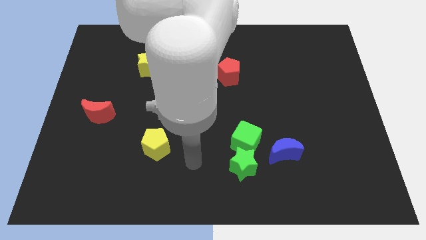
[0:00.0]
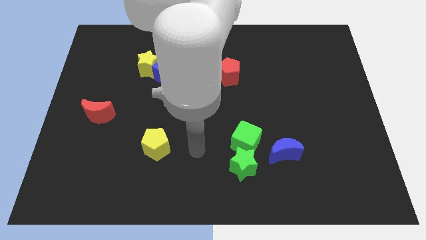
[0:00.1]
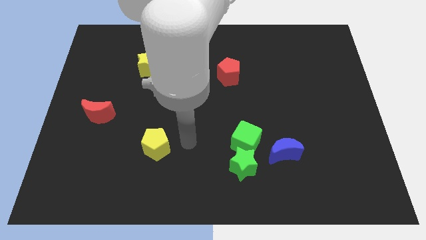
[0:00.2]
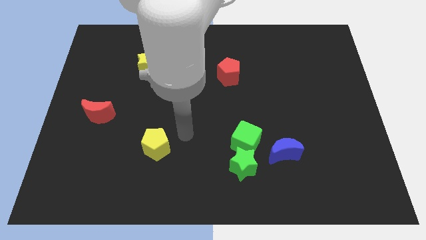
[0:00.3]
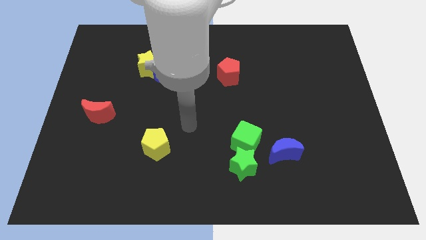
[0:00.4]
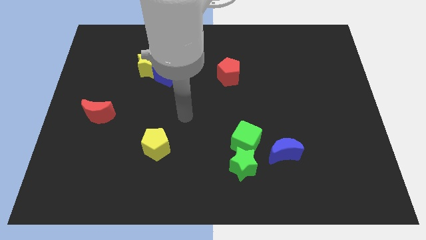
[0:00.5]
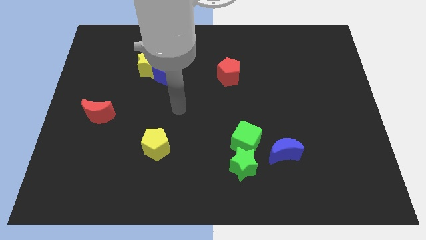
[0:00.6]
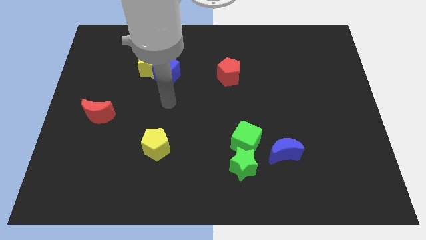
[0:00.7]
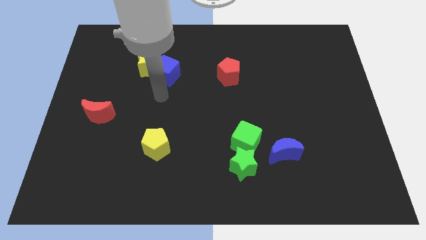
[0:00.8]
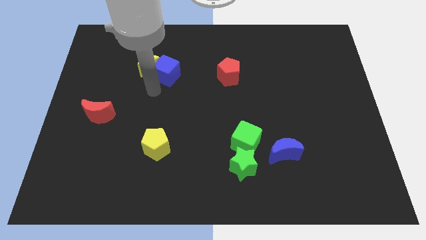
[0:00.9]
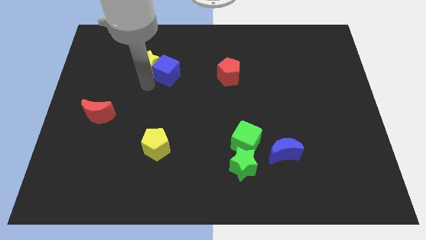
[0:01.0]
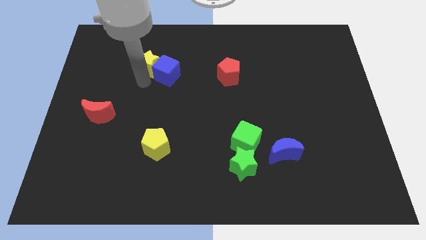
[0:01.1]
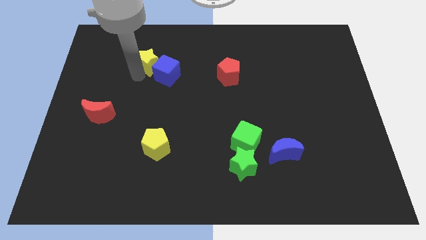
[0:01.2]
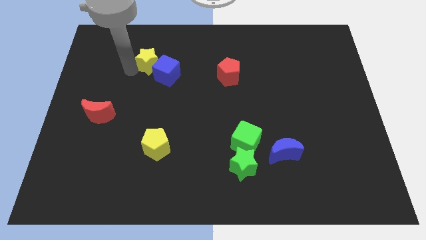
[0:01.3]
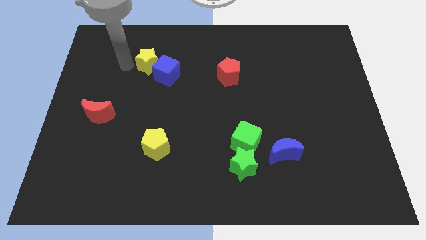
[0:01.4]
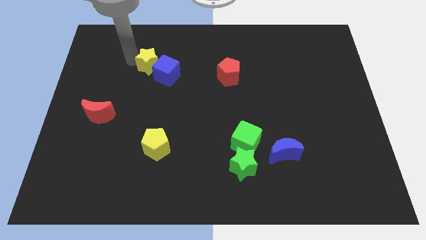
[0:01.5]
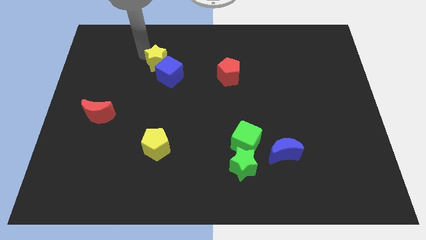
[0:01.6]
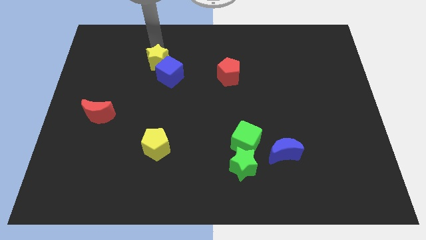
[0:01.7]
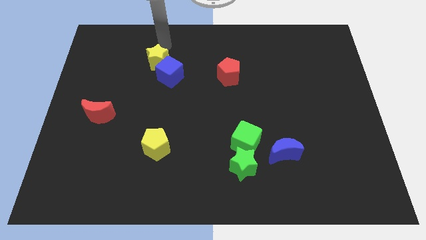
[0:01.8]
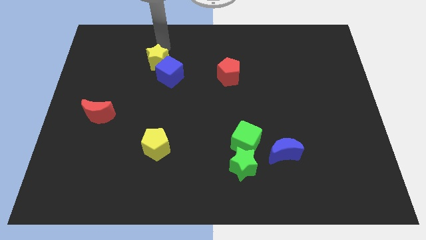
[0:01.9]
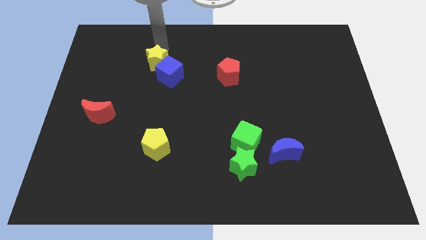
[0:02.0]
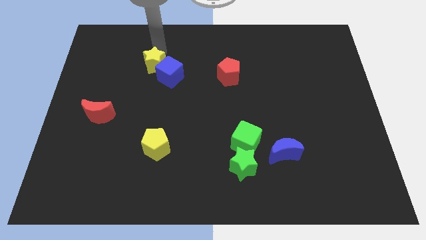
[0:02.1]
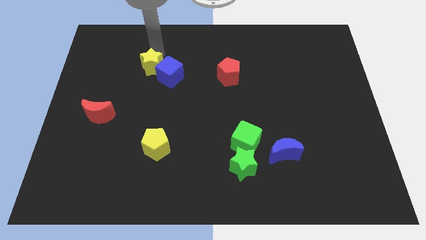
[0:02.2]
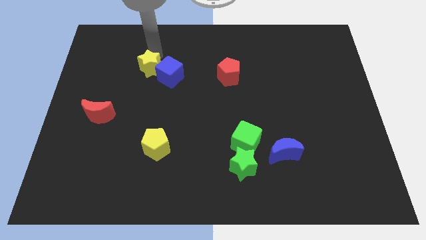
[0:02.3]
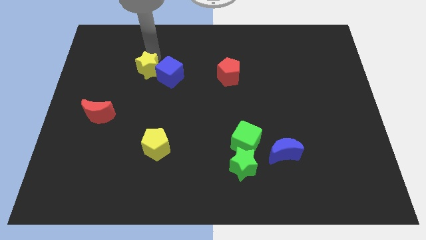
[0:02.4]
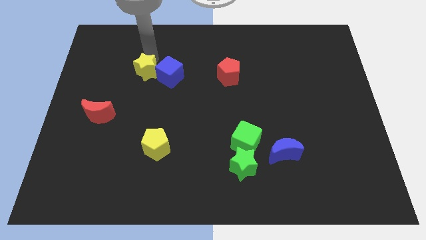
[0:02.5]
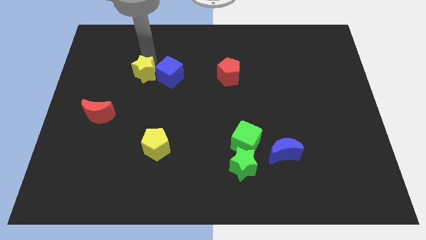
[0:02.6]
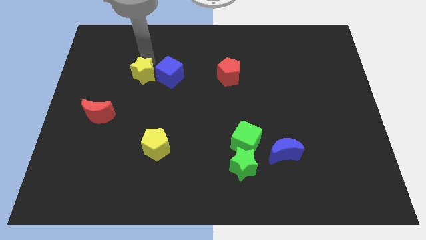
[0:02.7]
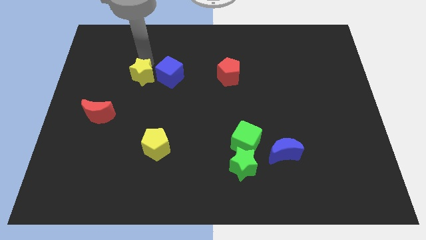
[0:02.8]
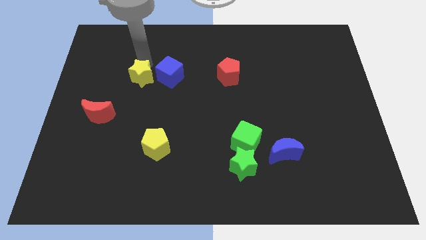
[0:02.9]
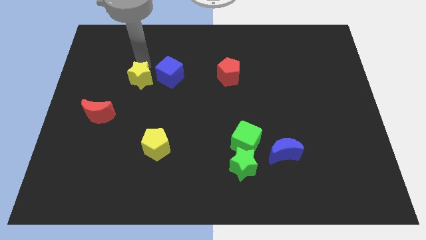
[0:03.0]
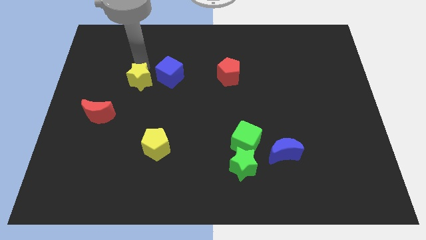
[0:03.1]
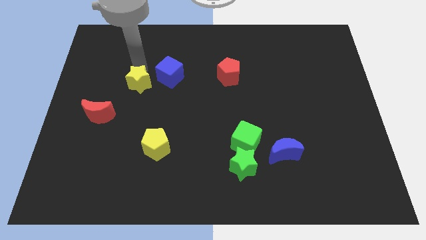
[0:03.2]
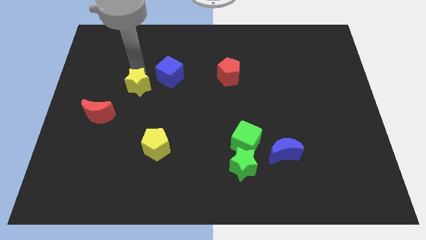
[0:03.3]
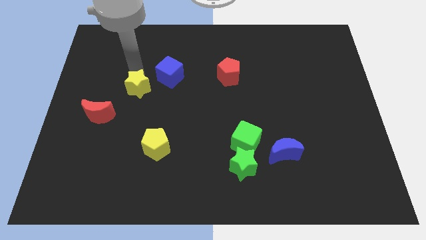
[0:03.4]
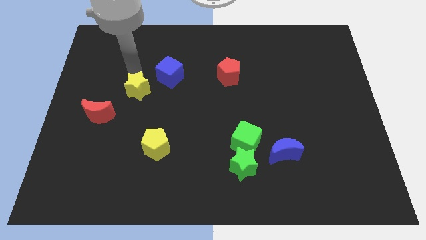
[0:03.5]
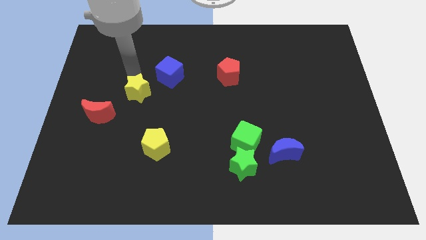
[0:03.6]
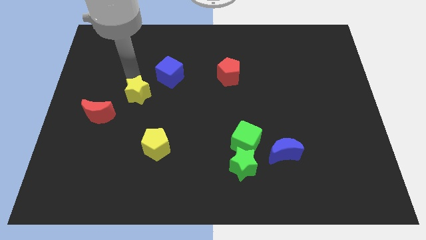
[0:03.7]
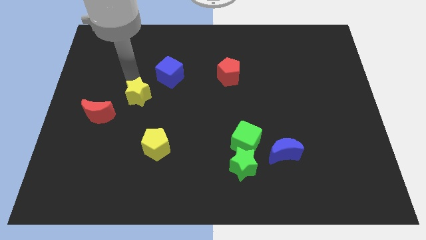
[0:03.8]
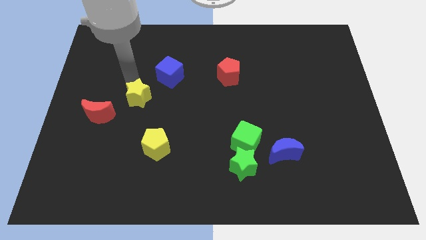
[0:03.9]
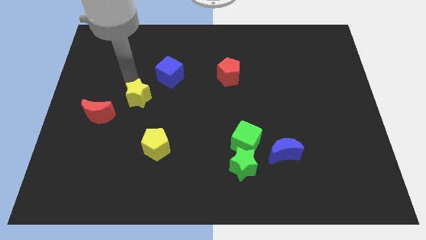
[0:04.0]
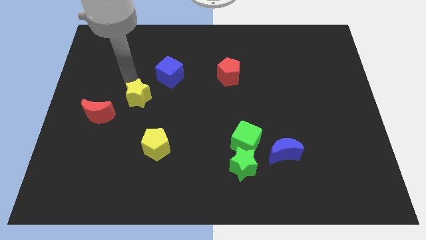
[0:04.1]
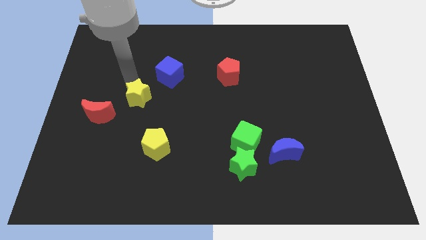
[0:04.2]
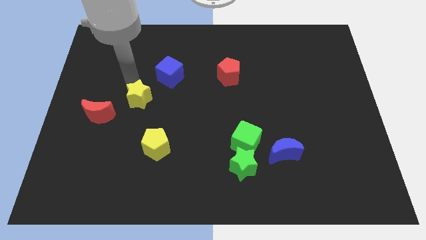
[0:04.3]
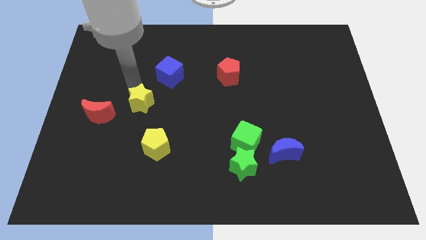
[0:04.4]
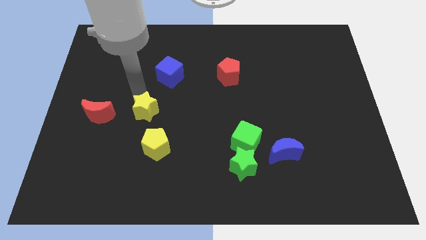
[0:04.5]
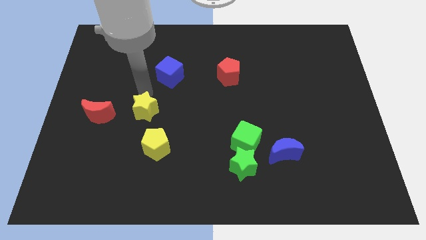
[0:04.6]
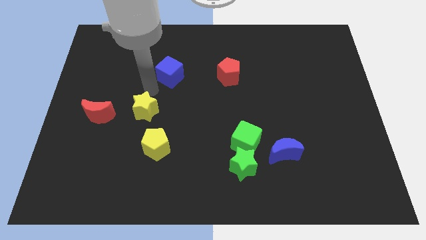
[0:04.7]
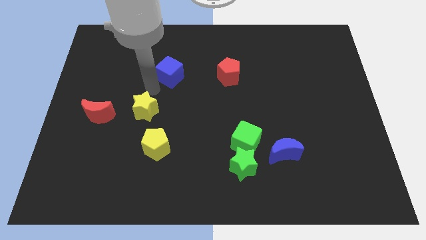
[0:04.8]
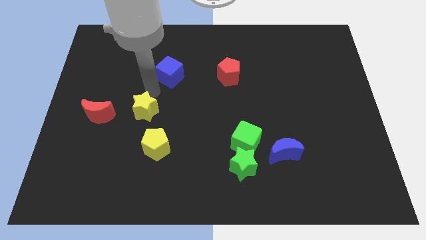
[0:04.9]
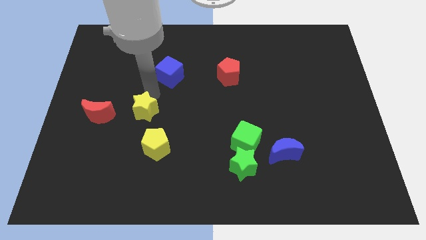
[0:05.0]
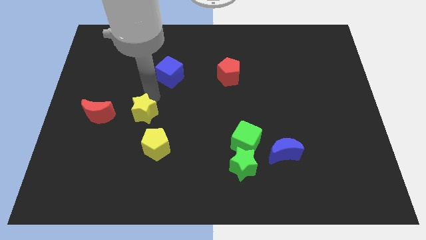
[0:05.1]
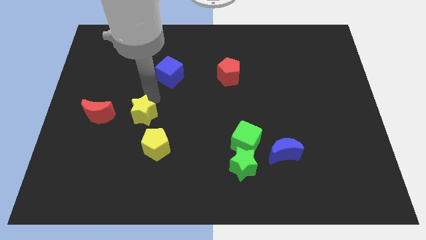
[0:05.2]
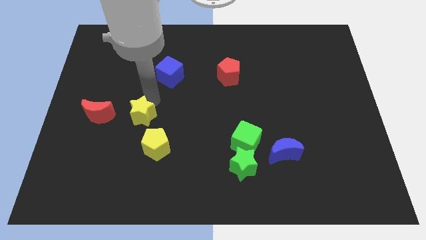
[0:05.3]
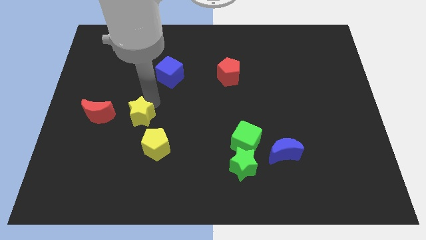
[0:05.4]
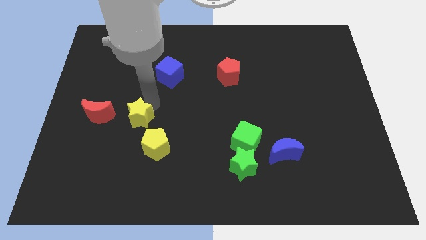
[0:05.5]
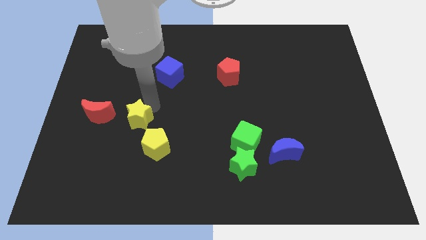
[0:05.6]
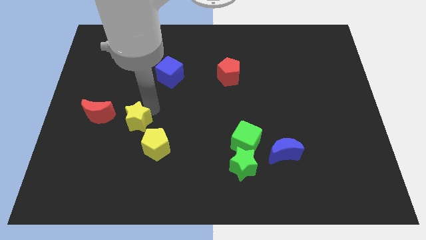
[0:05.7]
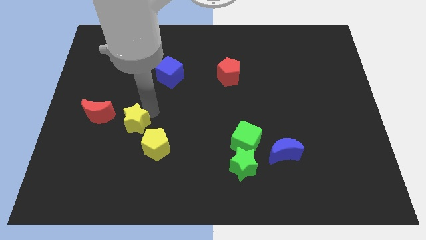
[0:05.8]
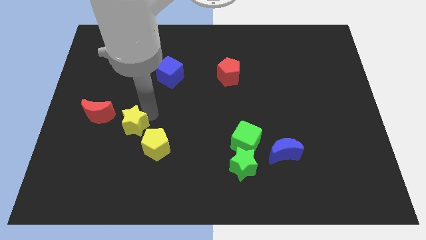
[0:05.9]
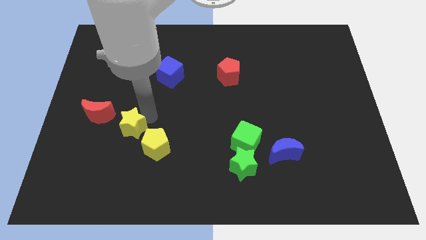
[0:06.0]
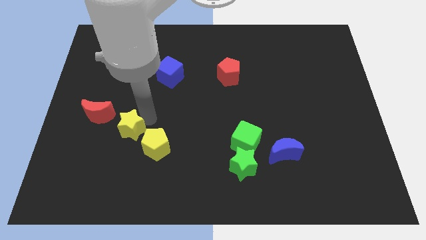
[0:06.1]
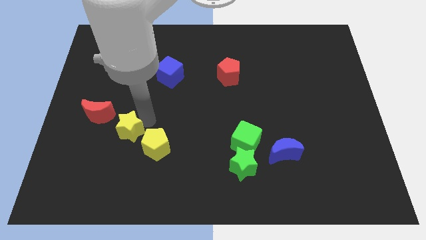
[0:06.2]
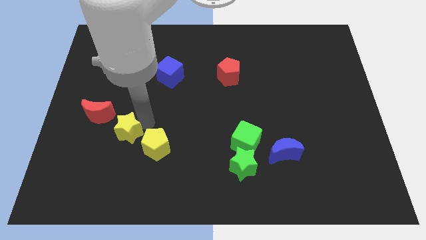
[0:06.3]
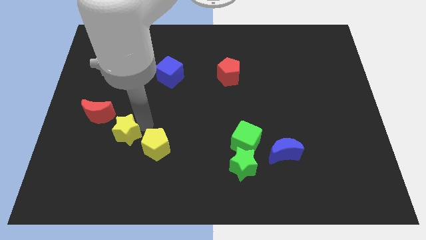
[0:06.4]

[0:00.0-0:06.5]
move the yellow star downwards

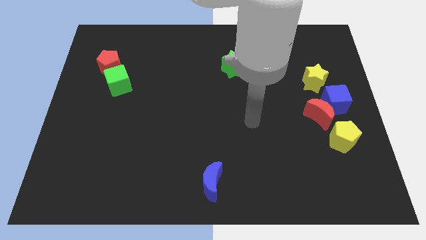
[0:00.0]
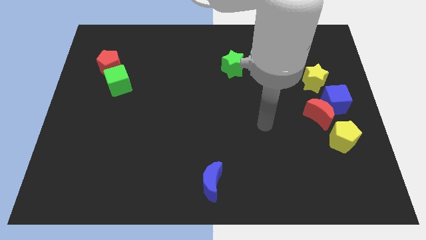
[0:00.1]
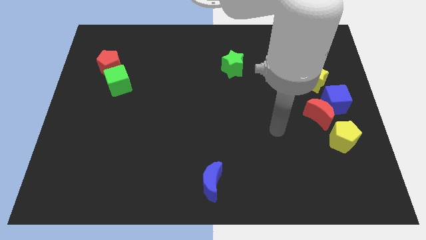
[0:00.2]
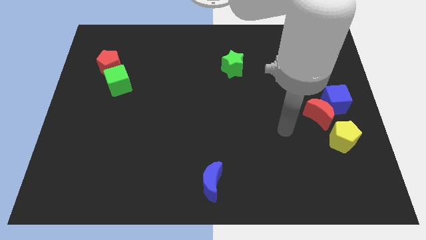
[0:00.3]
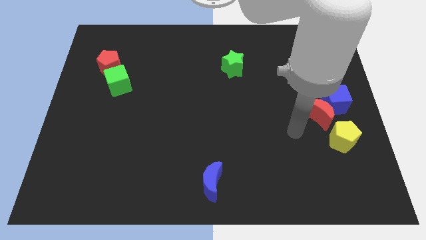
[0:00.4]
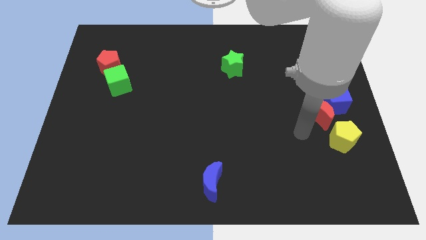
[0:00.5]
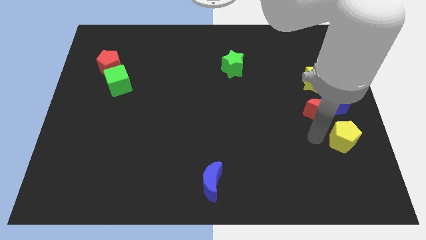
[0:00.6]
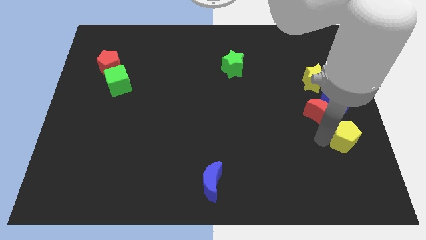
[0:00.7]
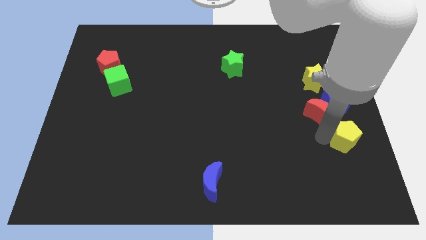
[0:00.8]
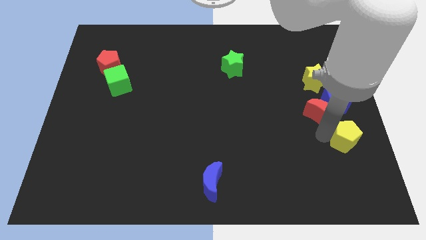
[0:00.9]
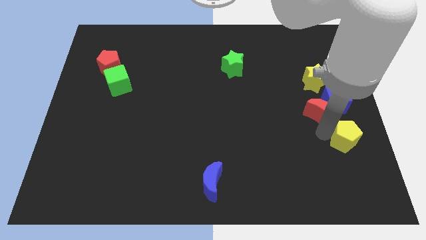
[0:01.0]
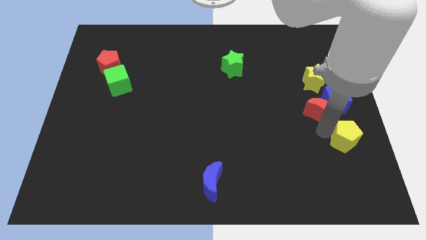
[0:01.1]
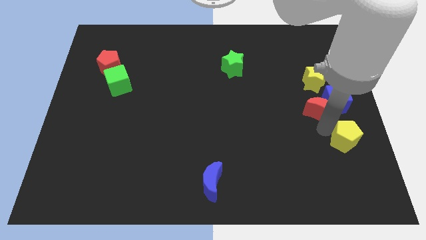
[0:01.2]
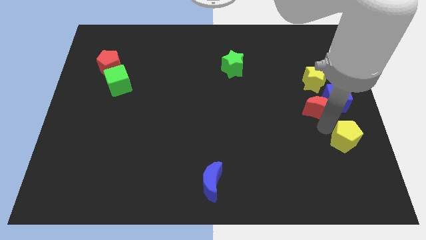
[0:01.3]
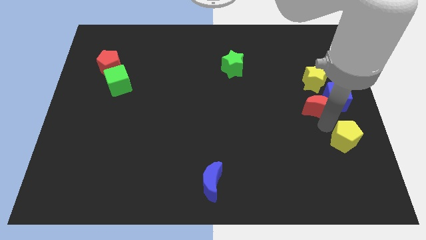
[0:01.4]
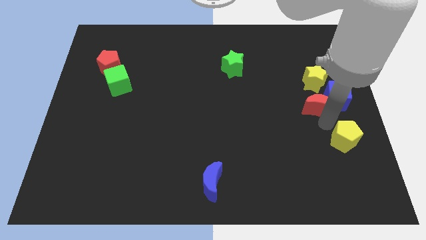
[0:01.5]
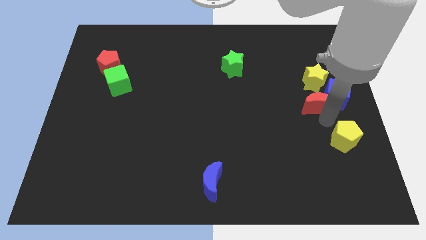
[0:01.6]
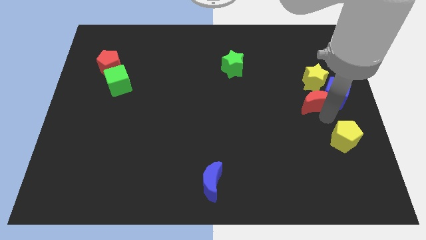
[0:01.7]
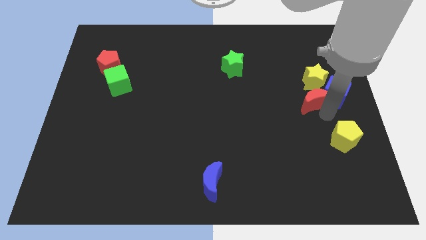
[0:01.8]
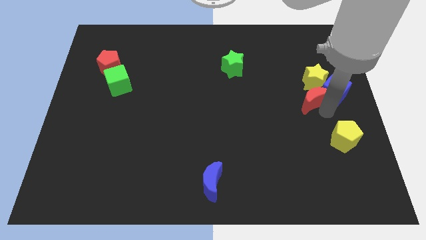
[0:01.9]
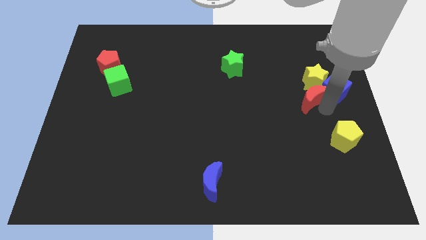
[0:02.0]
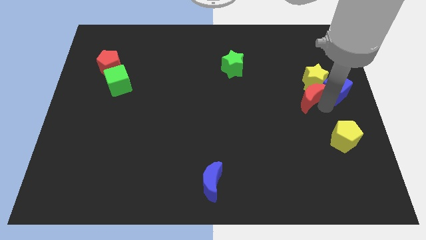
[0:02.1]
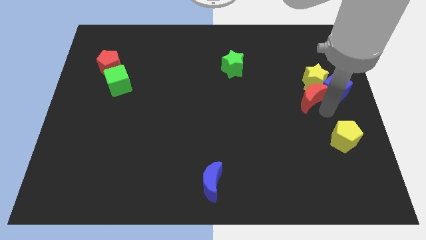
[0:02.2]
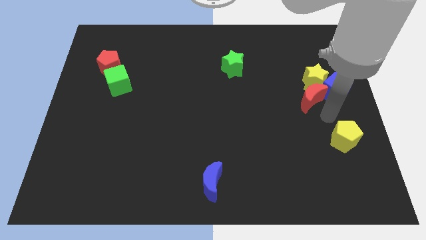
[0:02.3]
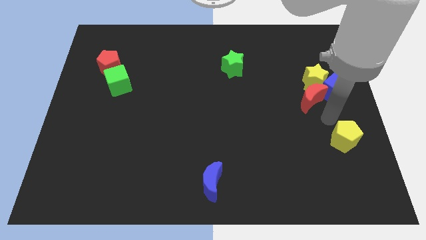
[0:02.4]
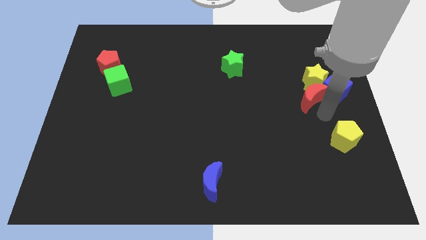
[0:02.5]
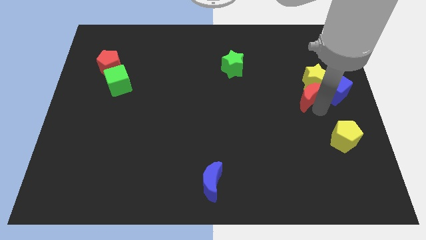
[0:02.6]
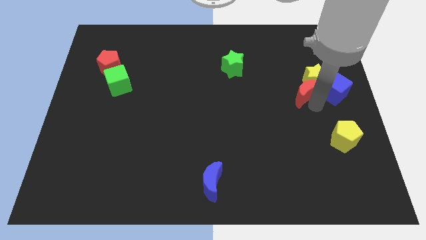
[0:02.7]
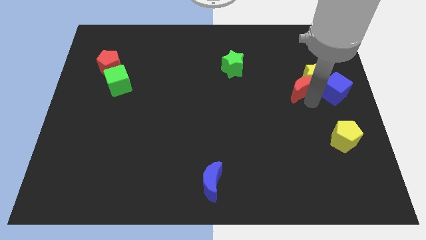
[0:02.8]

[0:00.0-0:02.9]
push the red moon upwards a little
